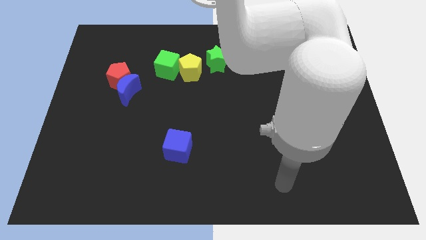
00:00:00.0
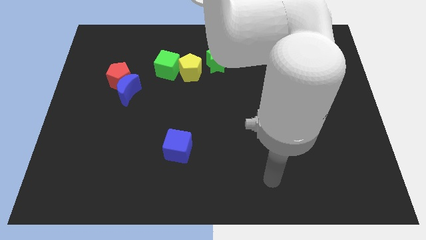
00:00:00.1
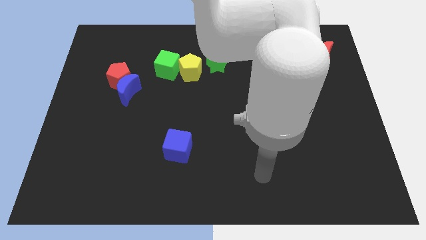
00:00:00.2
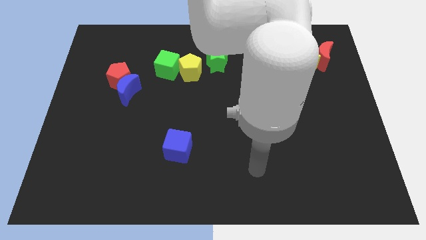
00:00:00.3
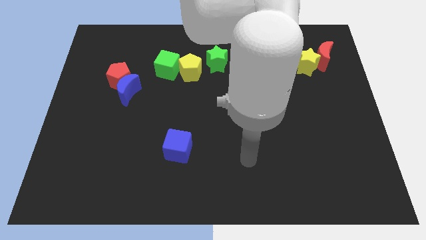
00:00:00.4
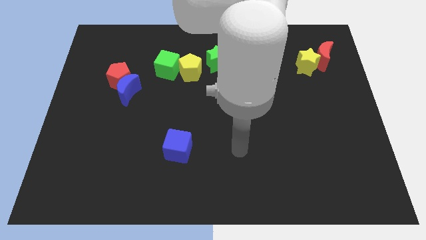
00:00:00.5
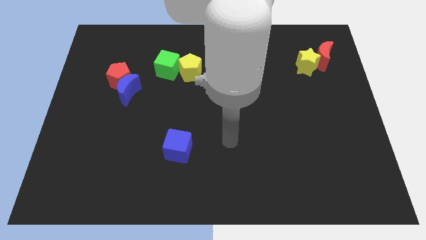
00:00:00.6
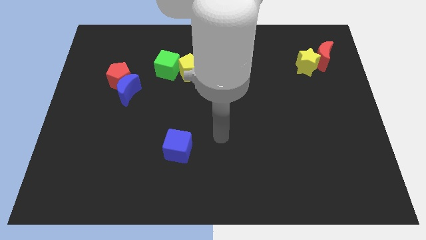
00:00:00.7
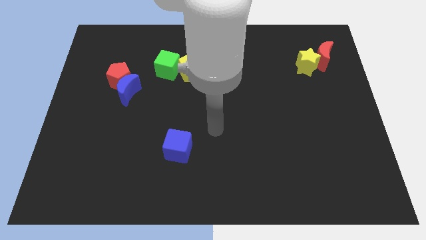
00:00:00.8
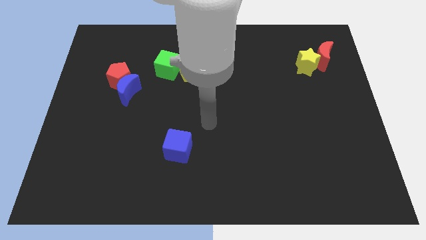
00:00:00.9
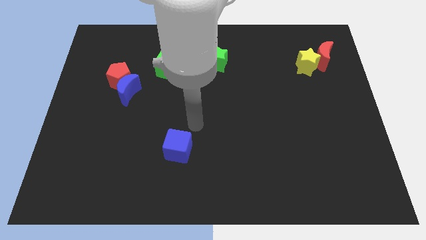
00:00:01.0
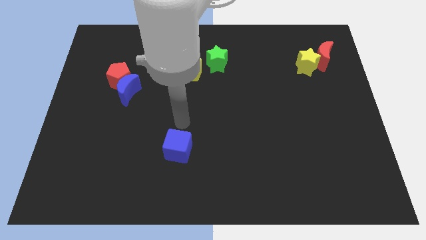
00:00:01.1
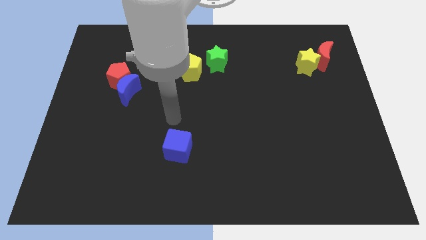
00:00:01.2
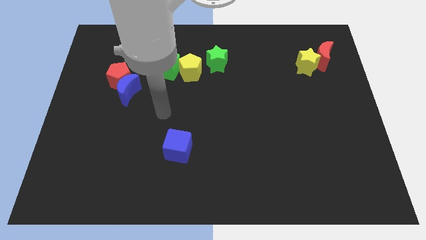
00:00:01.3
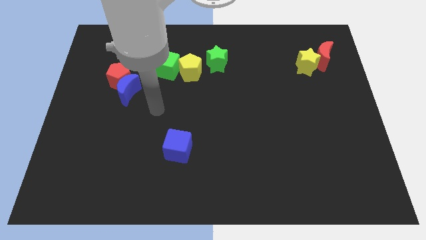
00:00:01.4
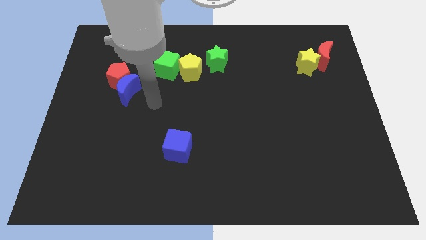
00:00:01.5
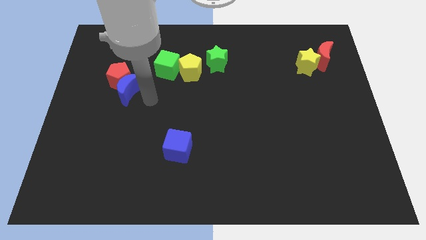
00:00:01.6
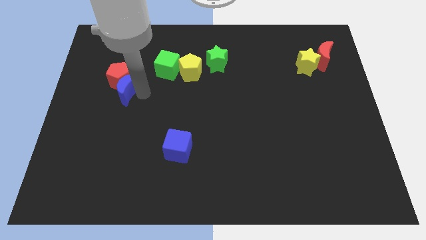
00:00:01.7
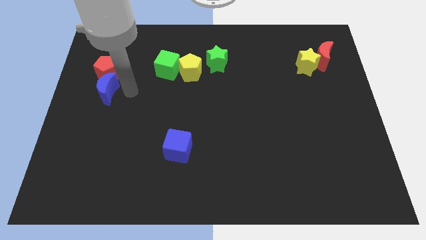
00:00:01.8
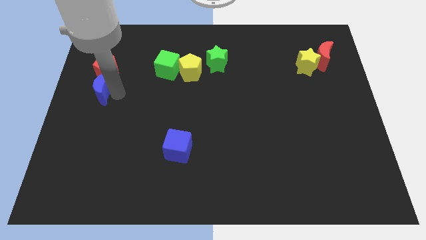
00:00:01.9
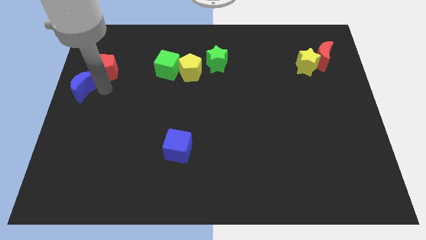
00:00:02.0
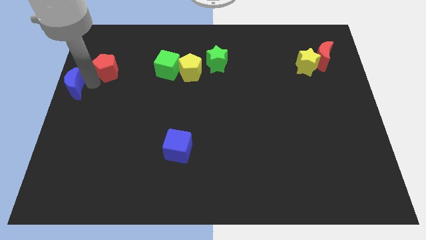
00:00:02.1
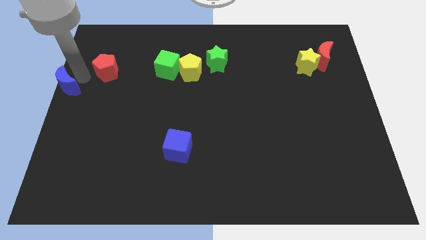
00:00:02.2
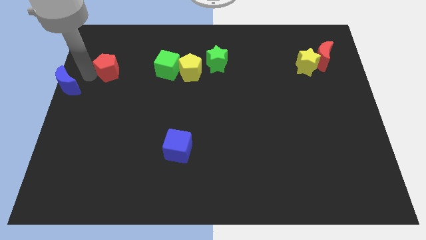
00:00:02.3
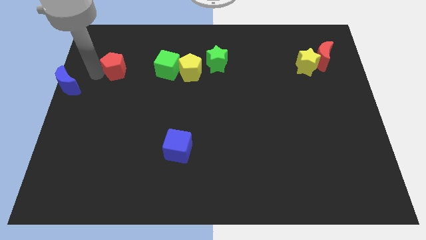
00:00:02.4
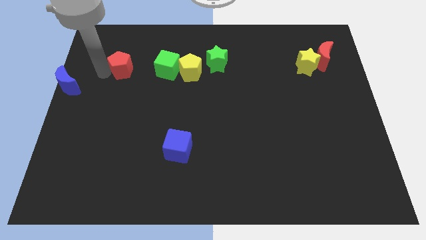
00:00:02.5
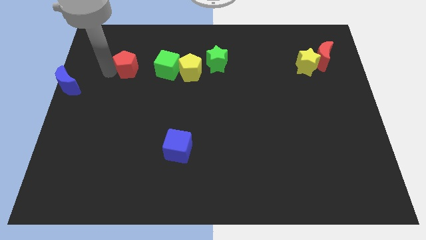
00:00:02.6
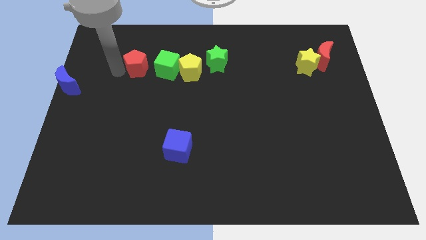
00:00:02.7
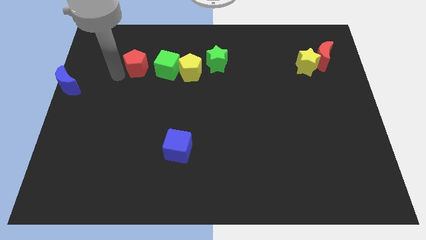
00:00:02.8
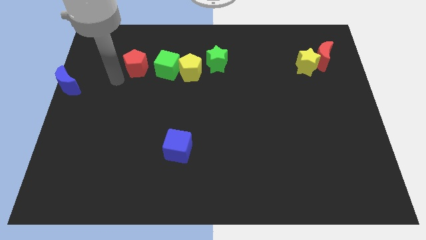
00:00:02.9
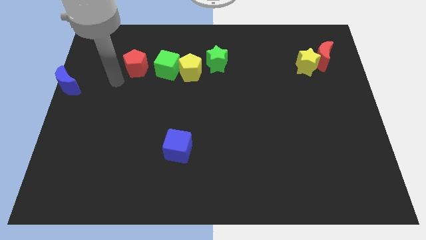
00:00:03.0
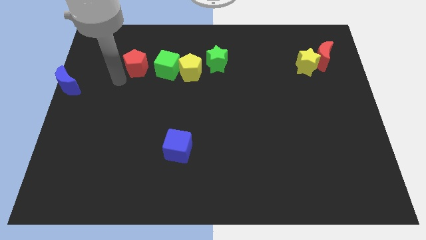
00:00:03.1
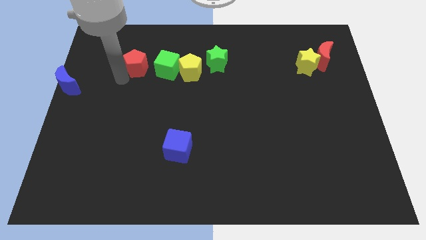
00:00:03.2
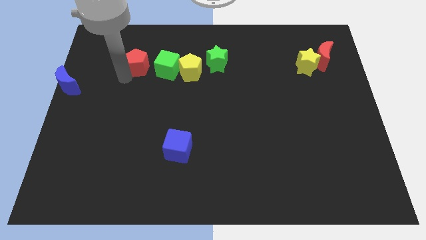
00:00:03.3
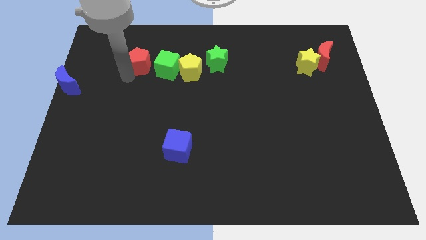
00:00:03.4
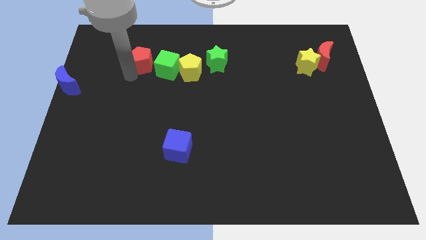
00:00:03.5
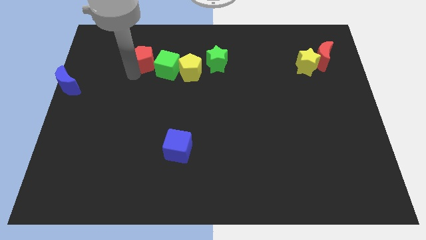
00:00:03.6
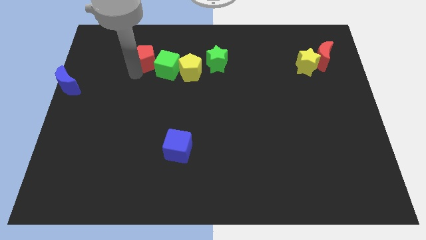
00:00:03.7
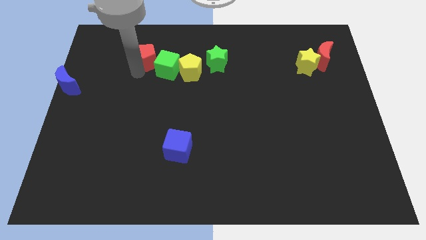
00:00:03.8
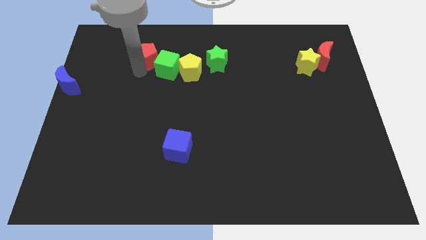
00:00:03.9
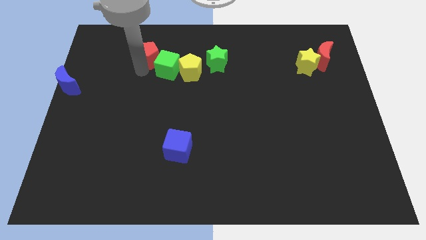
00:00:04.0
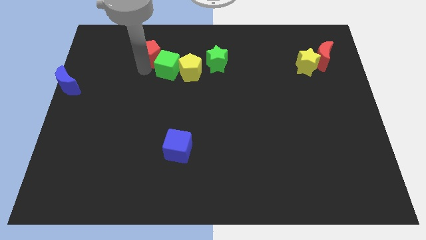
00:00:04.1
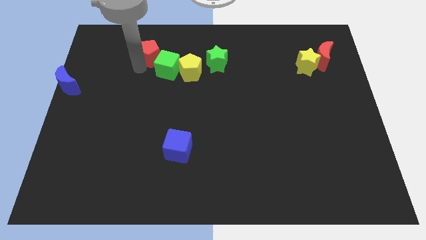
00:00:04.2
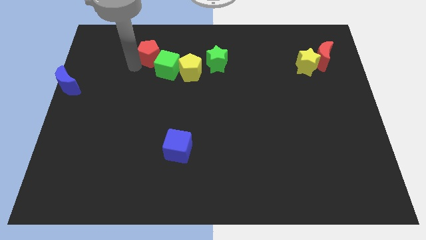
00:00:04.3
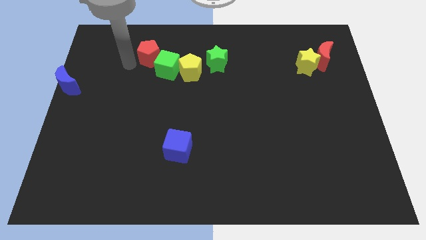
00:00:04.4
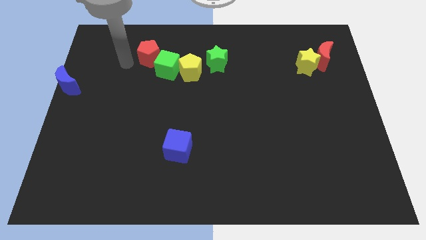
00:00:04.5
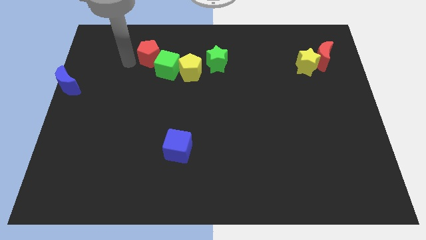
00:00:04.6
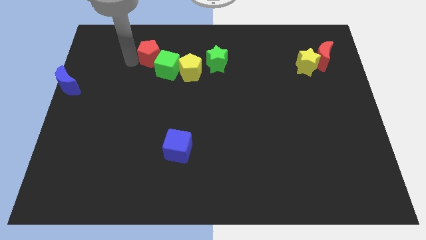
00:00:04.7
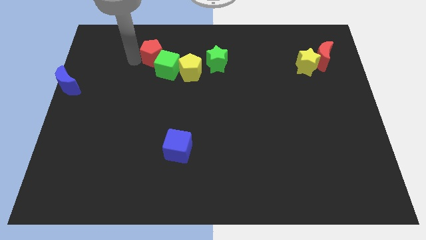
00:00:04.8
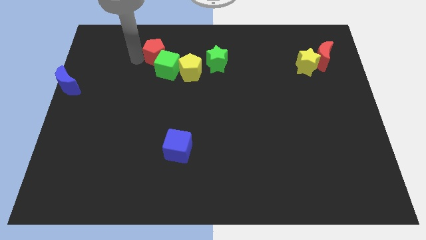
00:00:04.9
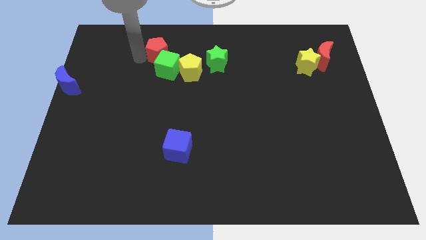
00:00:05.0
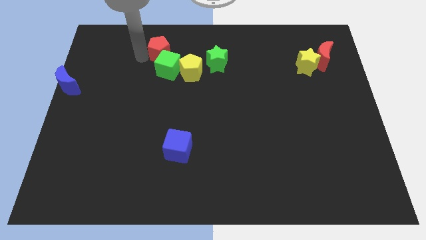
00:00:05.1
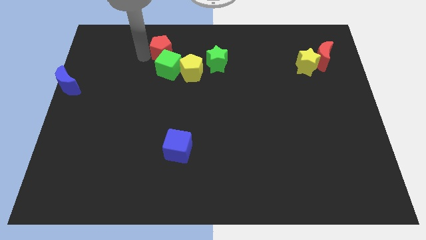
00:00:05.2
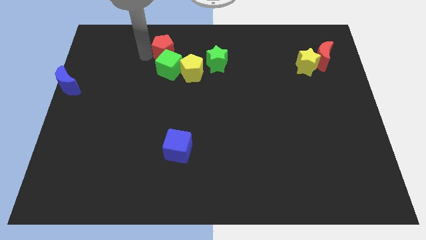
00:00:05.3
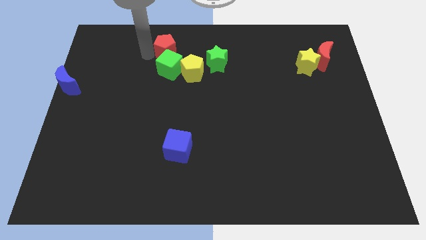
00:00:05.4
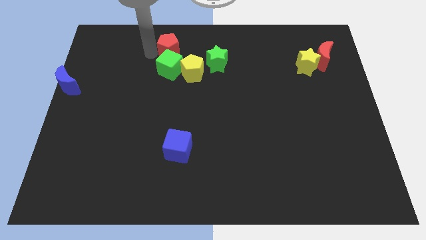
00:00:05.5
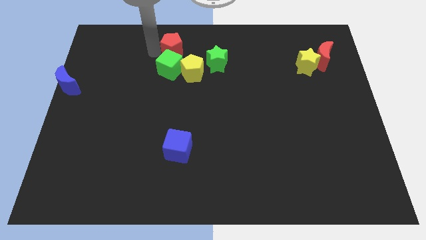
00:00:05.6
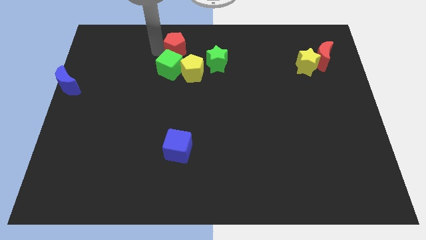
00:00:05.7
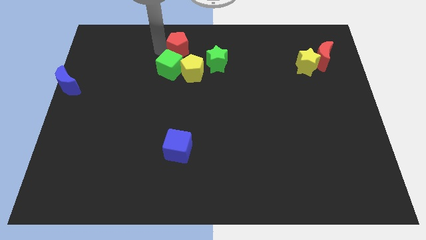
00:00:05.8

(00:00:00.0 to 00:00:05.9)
move the red pentagon to the top side

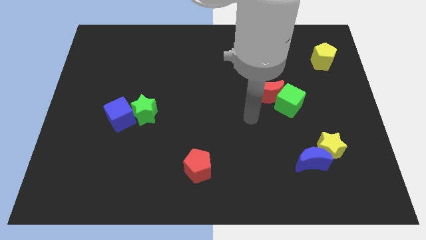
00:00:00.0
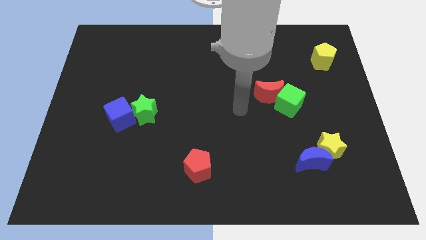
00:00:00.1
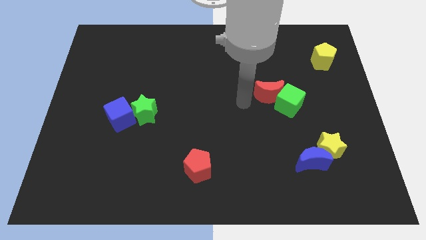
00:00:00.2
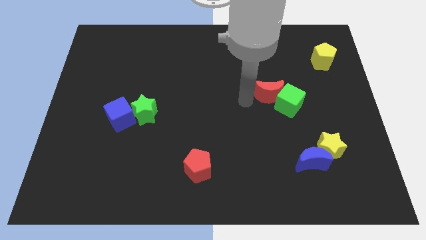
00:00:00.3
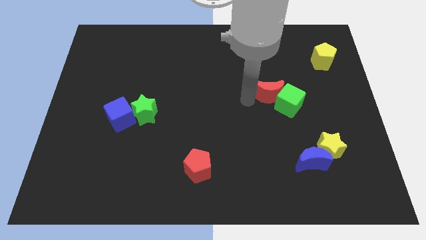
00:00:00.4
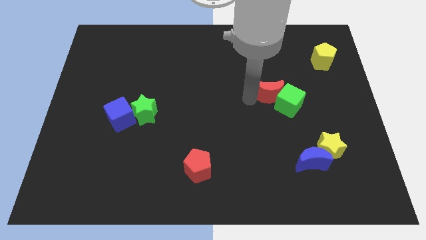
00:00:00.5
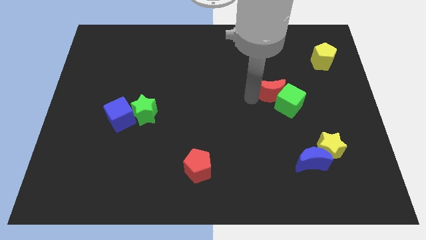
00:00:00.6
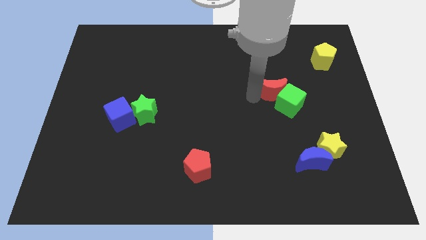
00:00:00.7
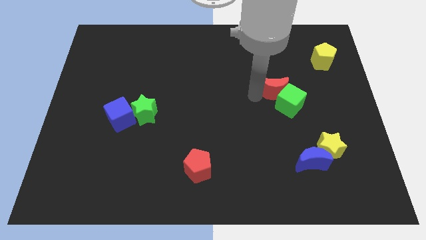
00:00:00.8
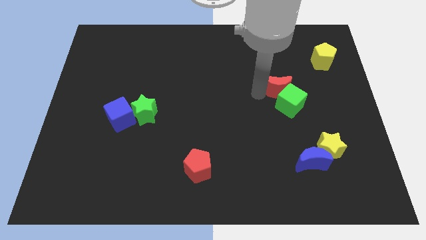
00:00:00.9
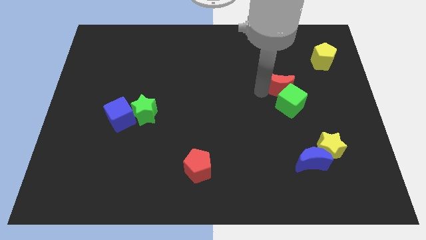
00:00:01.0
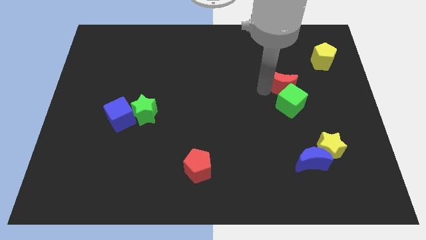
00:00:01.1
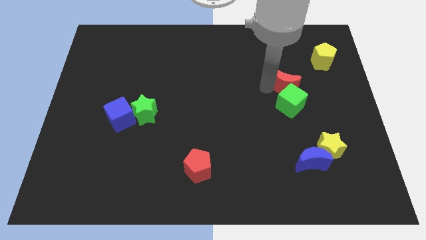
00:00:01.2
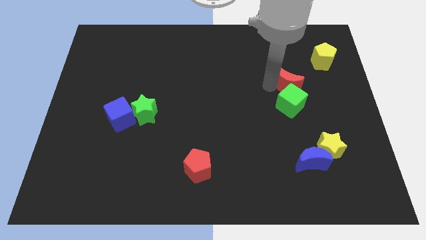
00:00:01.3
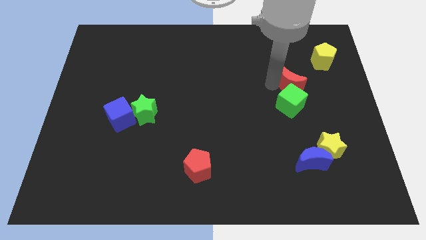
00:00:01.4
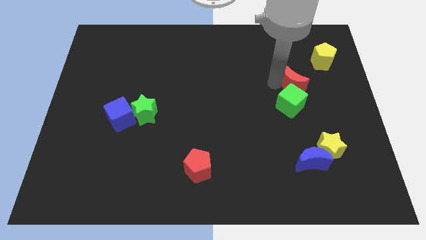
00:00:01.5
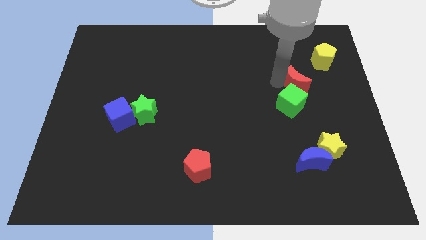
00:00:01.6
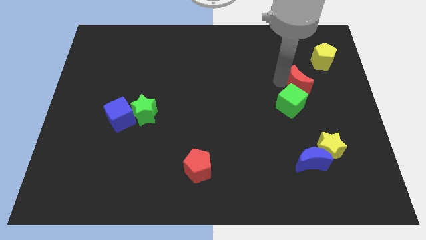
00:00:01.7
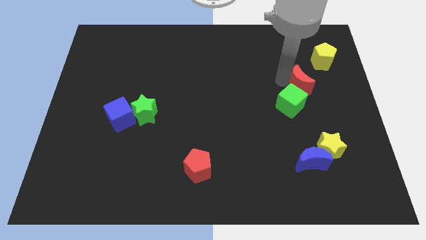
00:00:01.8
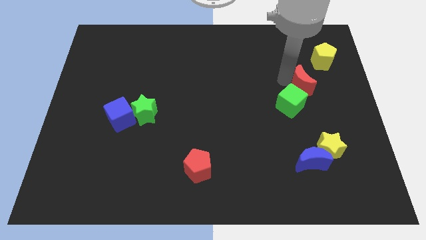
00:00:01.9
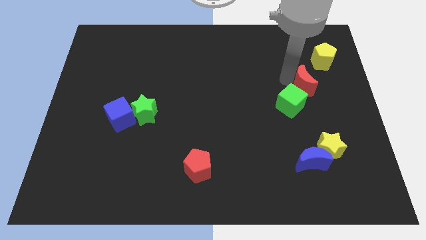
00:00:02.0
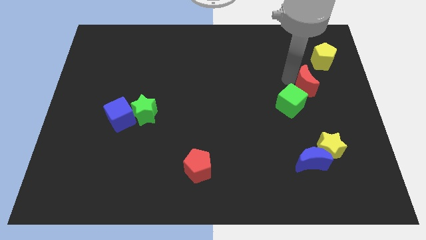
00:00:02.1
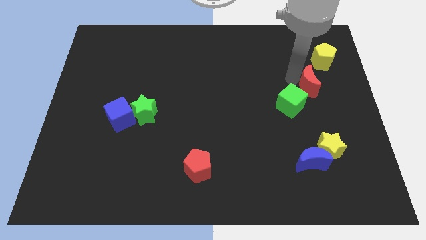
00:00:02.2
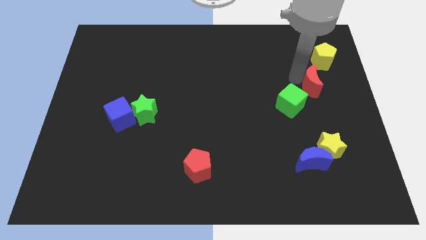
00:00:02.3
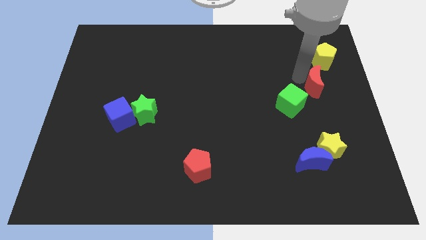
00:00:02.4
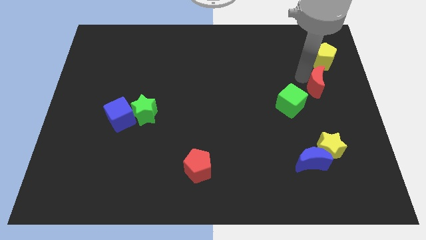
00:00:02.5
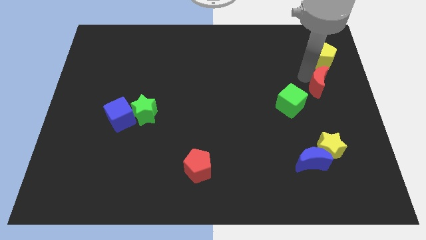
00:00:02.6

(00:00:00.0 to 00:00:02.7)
put the red moon to the center right
